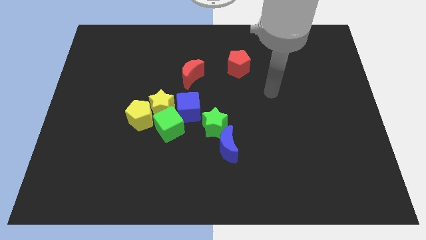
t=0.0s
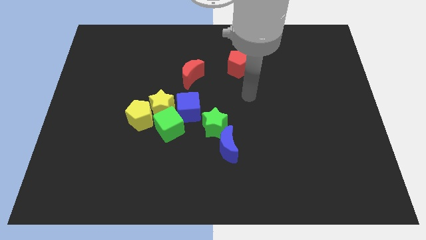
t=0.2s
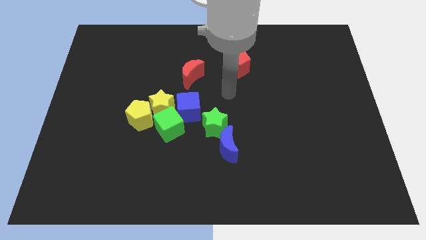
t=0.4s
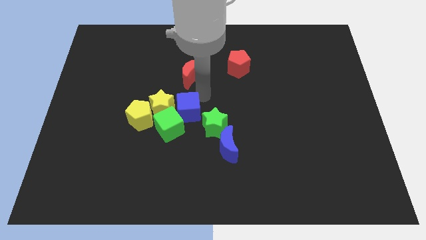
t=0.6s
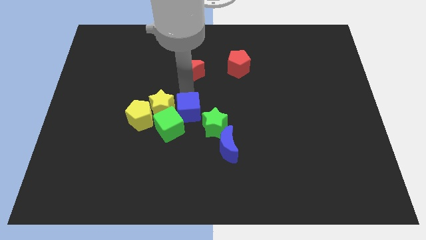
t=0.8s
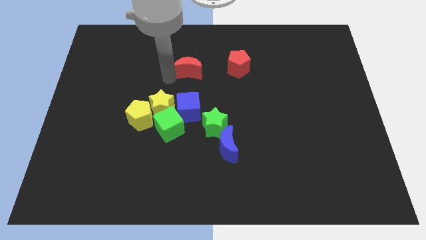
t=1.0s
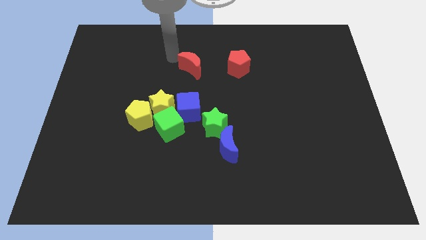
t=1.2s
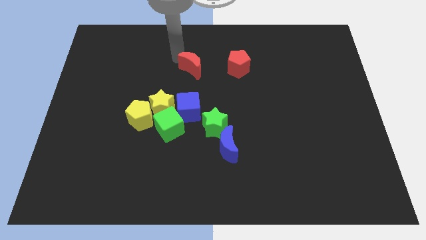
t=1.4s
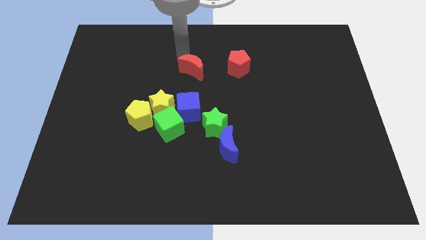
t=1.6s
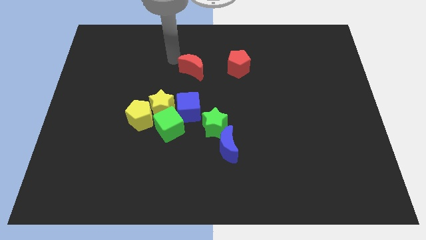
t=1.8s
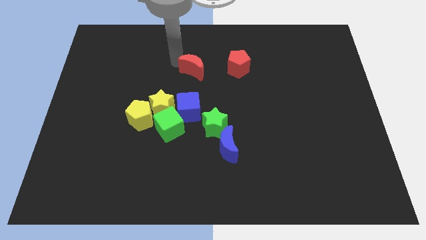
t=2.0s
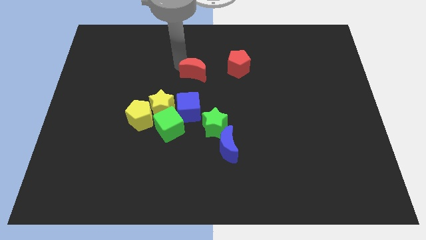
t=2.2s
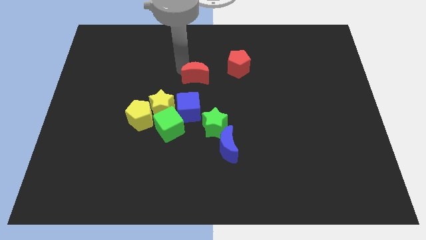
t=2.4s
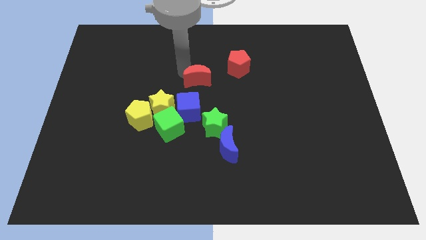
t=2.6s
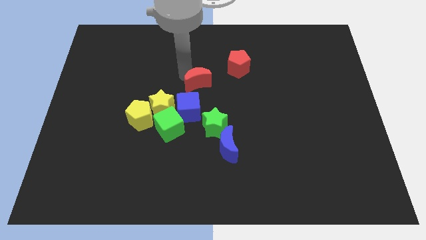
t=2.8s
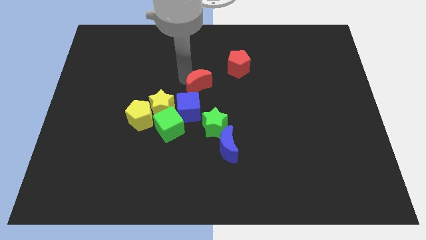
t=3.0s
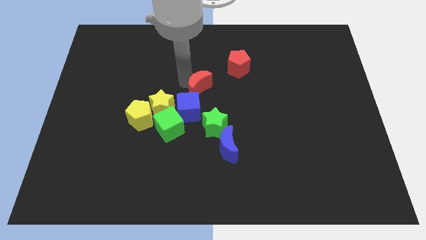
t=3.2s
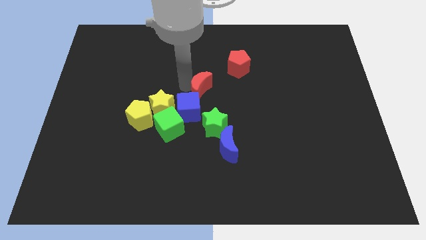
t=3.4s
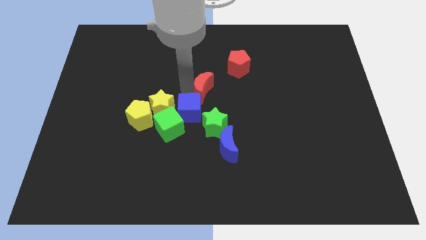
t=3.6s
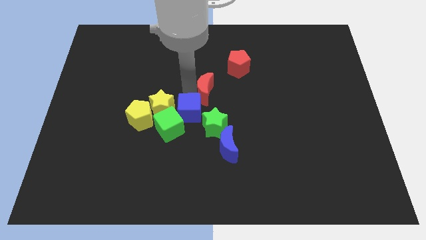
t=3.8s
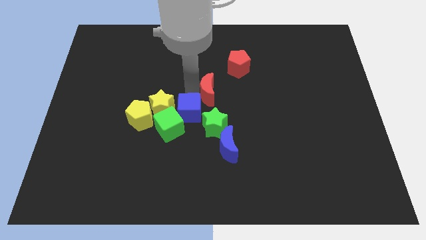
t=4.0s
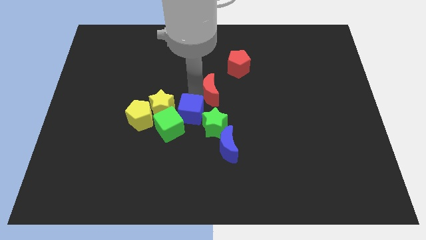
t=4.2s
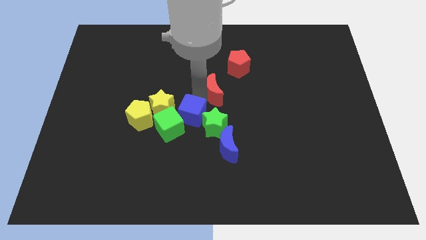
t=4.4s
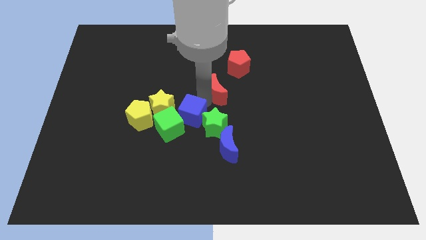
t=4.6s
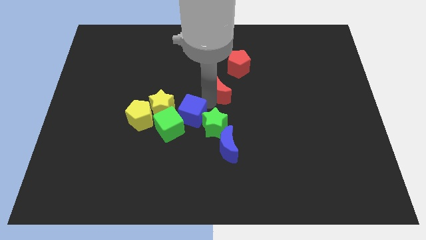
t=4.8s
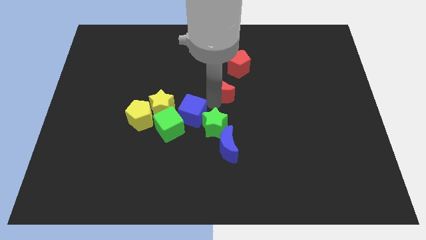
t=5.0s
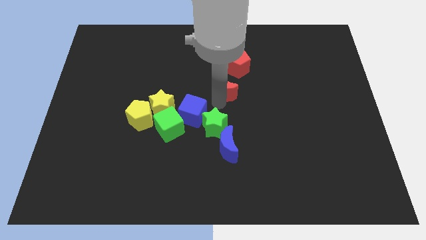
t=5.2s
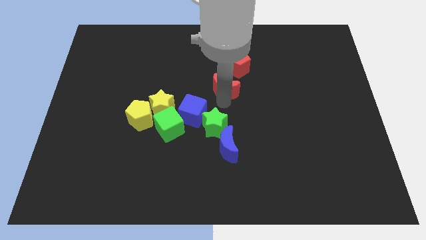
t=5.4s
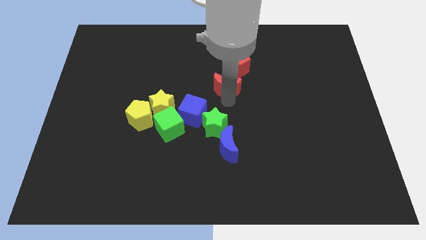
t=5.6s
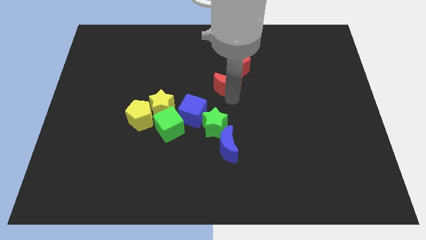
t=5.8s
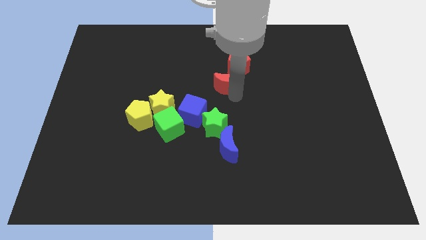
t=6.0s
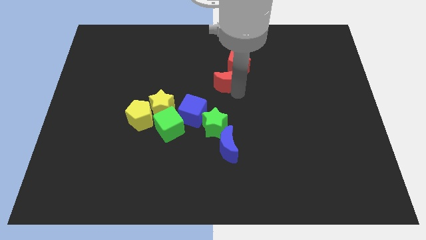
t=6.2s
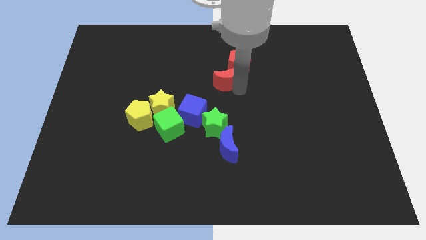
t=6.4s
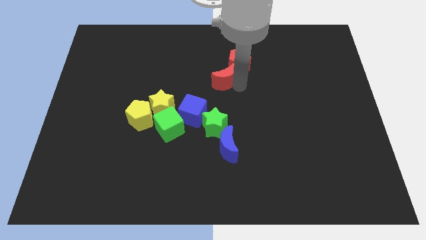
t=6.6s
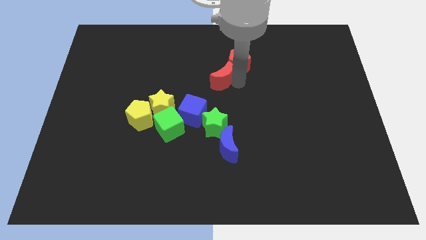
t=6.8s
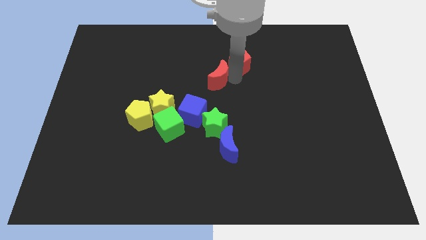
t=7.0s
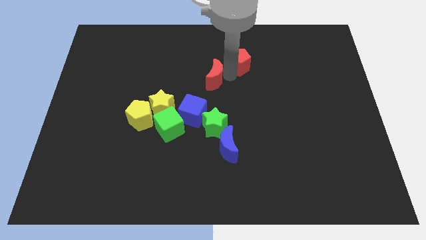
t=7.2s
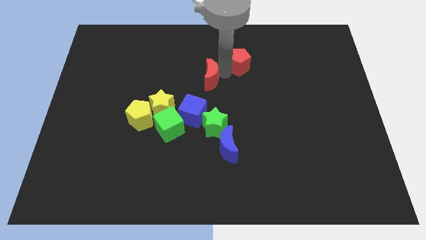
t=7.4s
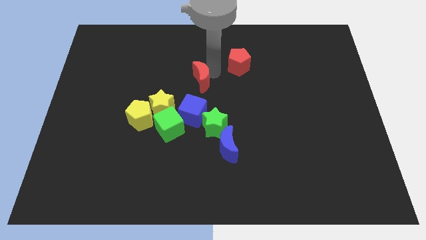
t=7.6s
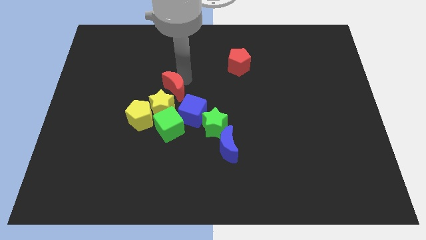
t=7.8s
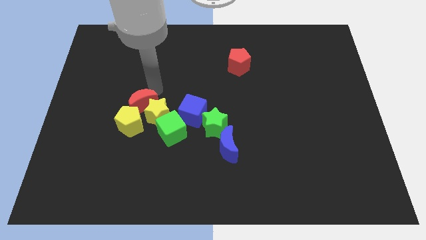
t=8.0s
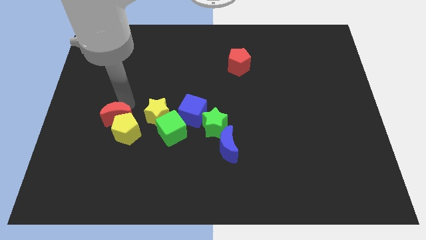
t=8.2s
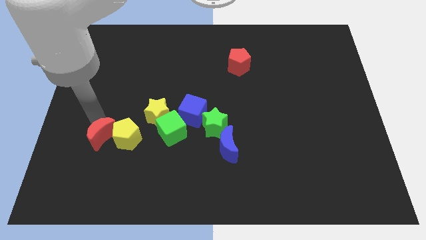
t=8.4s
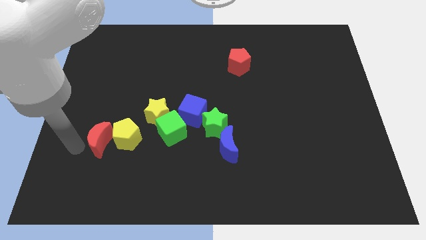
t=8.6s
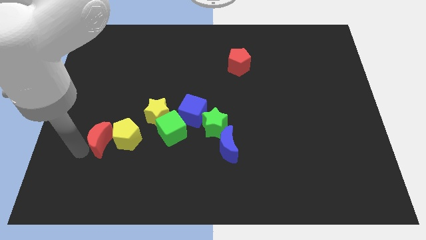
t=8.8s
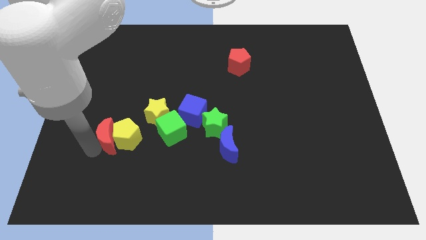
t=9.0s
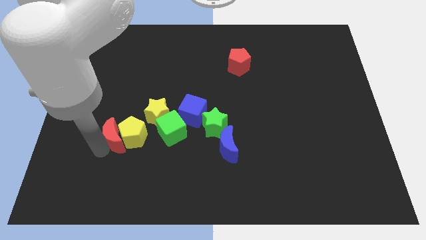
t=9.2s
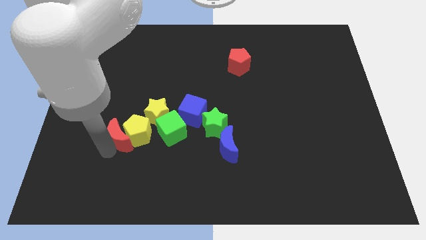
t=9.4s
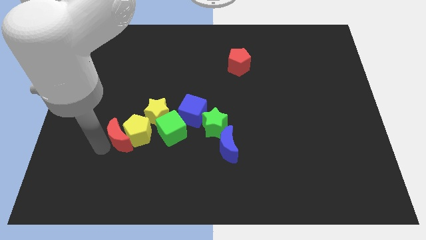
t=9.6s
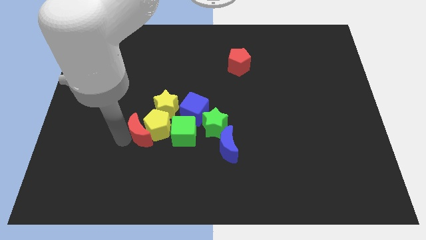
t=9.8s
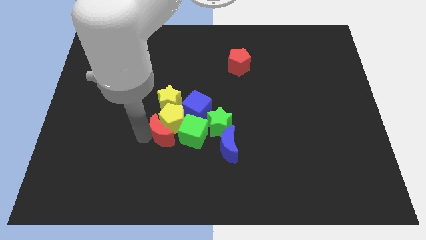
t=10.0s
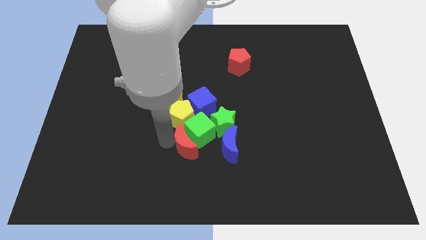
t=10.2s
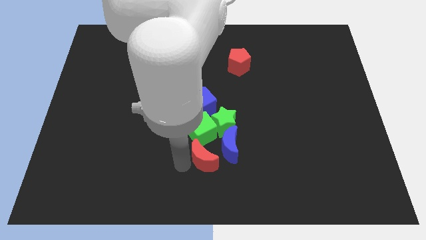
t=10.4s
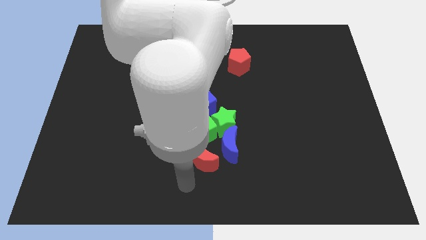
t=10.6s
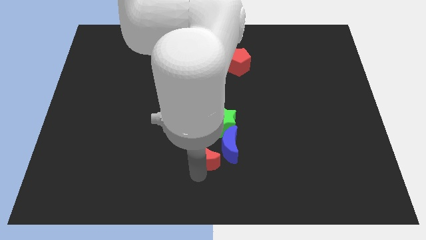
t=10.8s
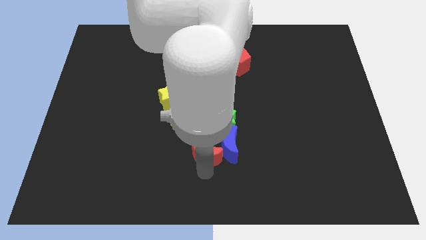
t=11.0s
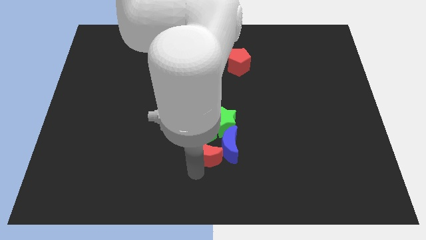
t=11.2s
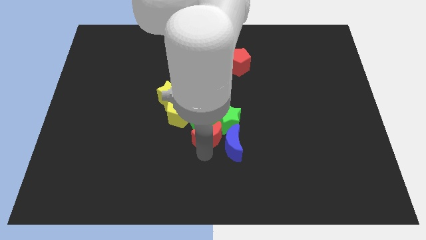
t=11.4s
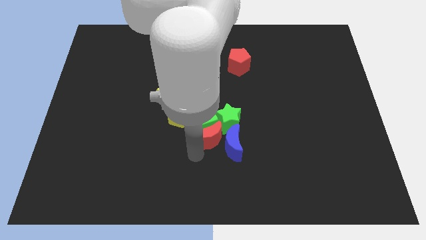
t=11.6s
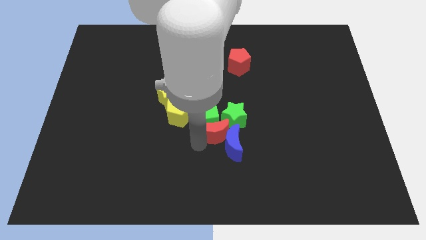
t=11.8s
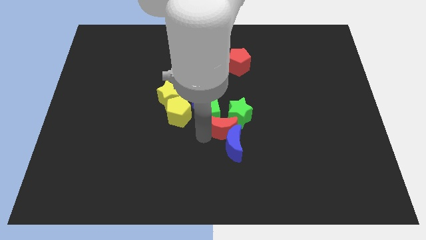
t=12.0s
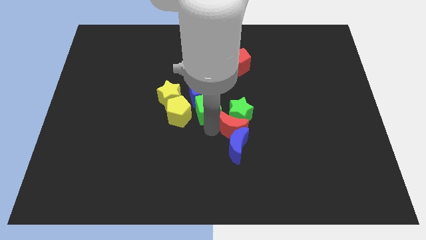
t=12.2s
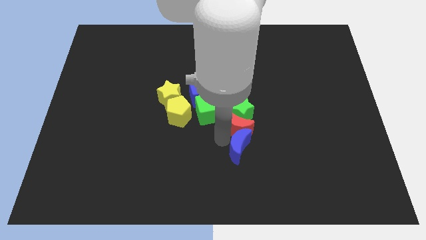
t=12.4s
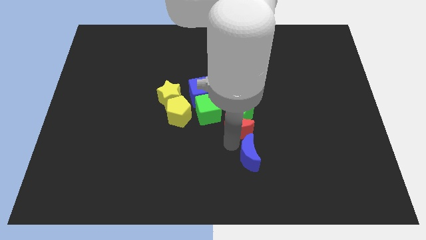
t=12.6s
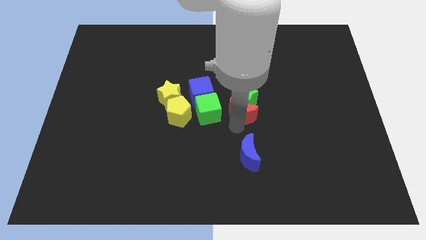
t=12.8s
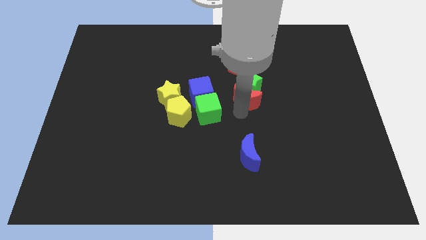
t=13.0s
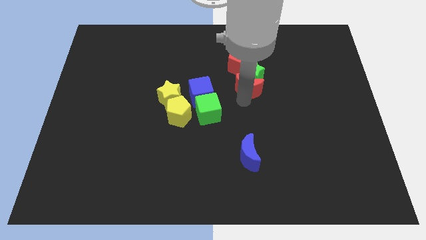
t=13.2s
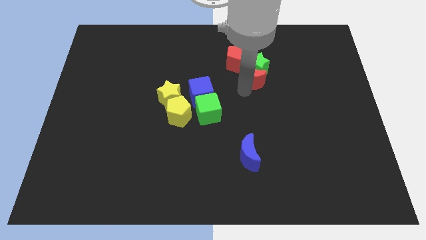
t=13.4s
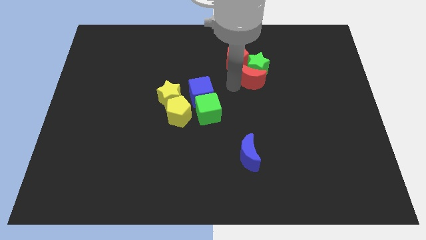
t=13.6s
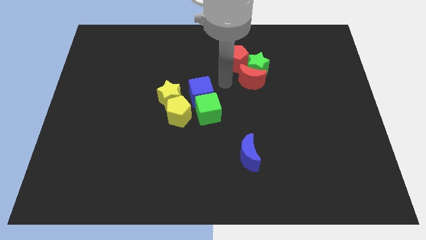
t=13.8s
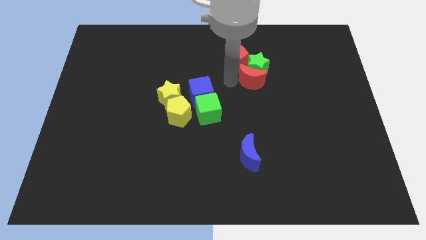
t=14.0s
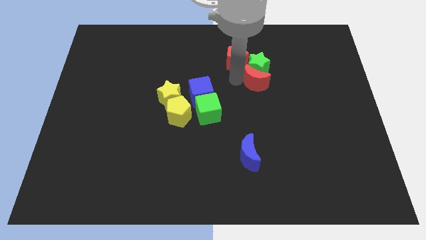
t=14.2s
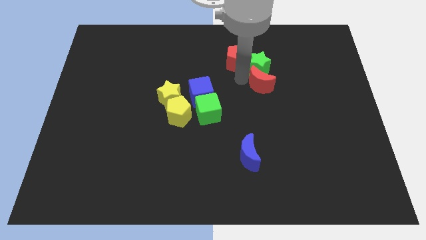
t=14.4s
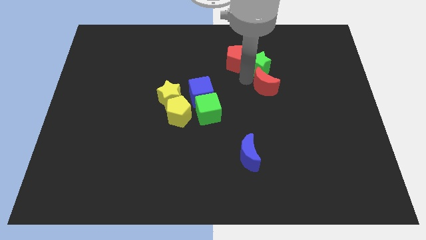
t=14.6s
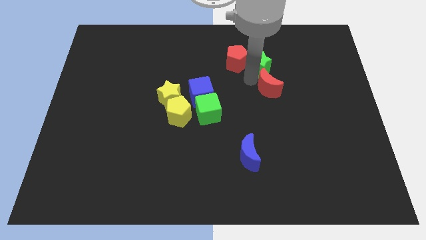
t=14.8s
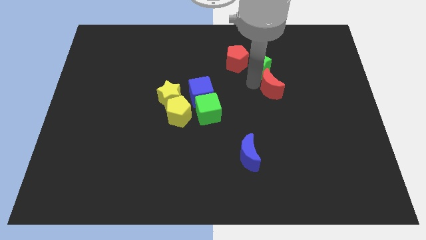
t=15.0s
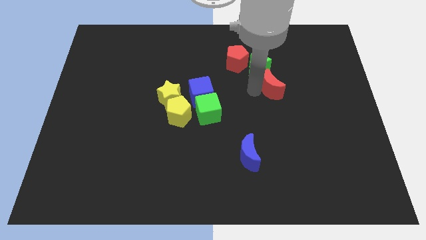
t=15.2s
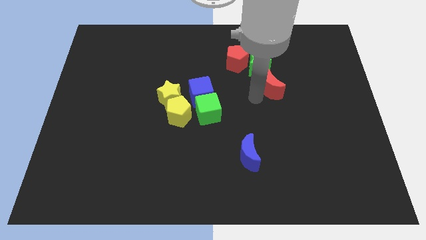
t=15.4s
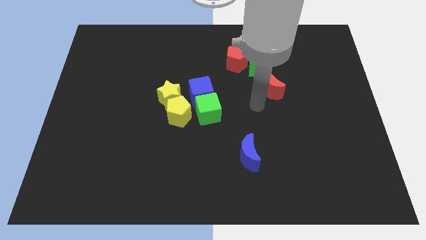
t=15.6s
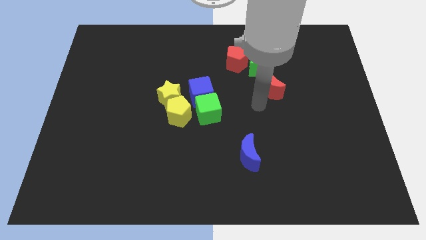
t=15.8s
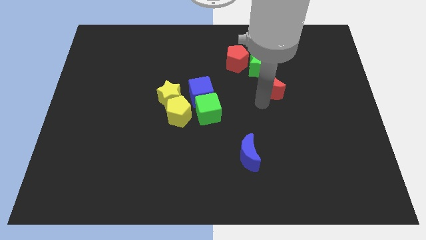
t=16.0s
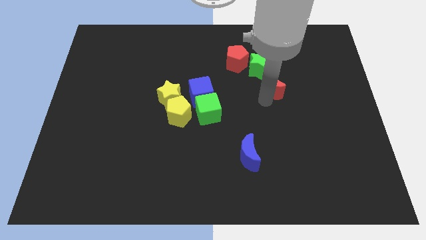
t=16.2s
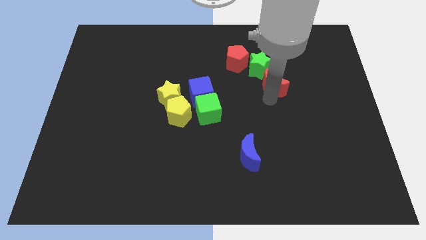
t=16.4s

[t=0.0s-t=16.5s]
push the red moon right
